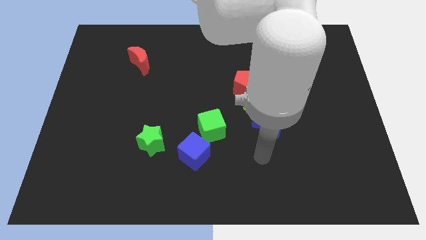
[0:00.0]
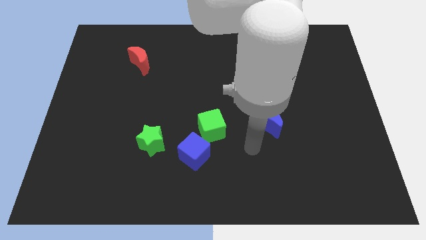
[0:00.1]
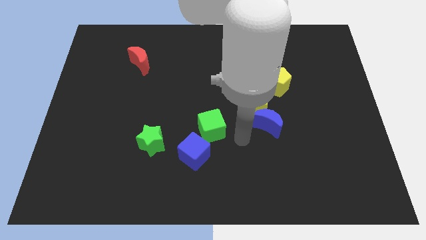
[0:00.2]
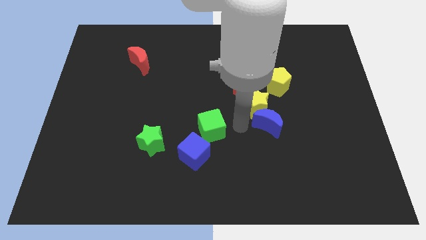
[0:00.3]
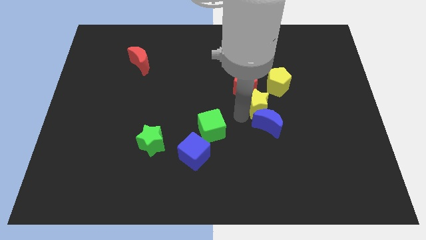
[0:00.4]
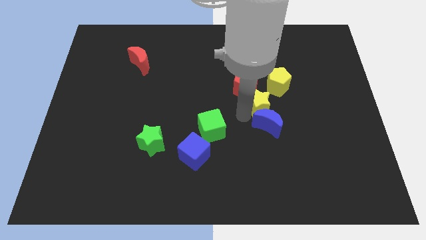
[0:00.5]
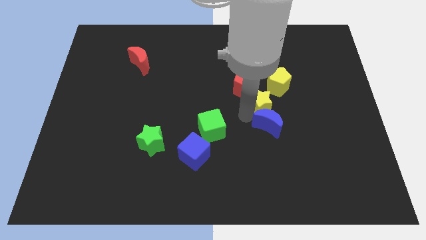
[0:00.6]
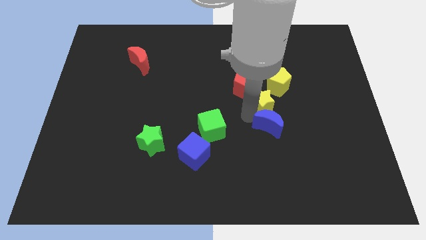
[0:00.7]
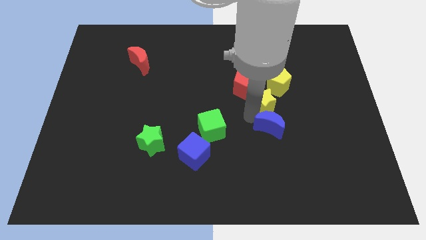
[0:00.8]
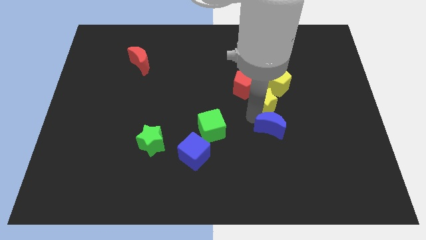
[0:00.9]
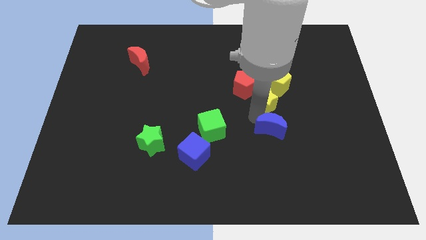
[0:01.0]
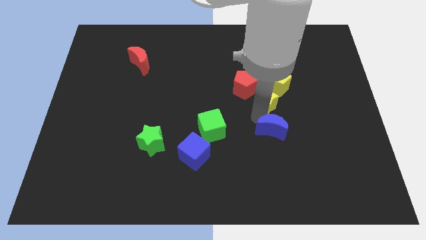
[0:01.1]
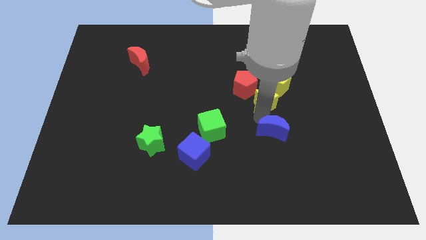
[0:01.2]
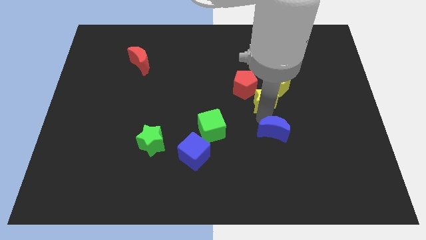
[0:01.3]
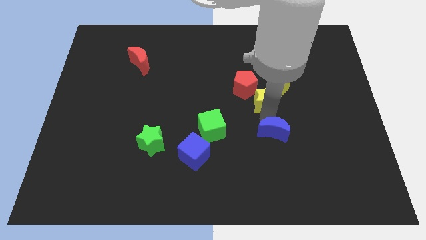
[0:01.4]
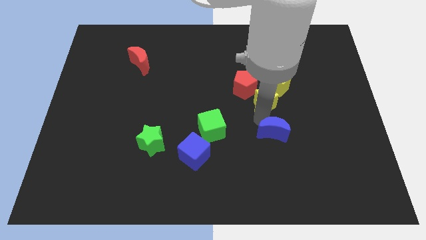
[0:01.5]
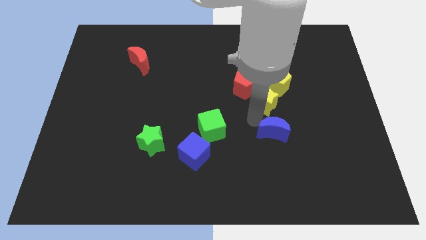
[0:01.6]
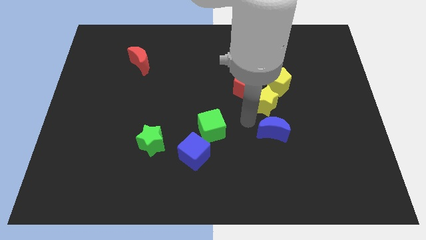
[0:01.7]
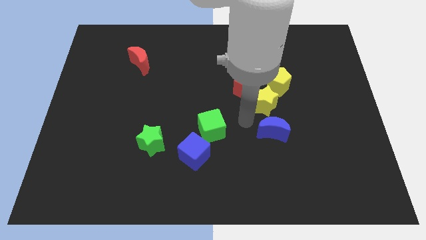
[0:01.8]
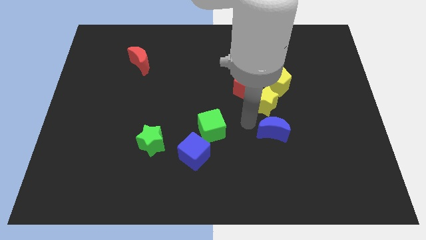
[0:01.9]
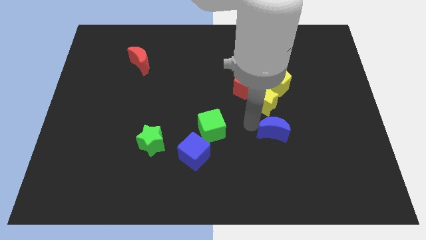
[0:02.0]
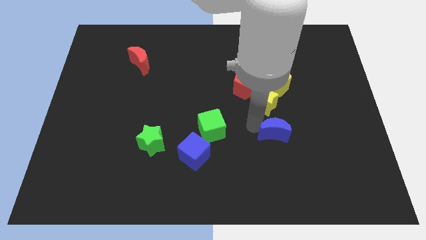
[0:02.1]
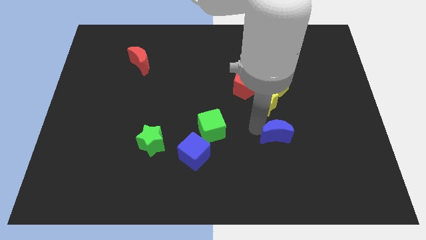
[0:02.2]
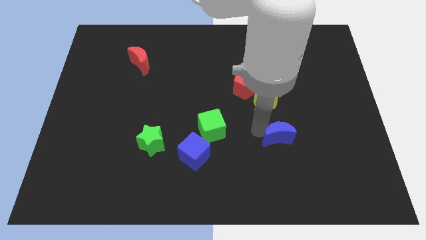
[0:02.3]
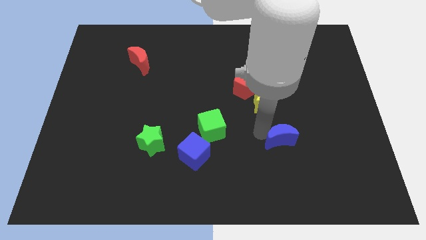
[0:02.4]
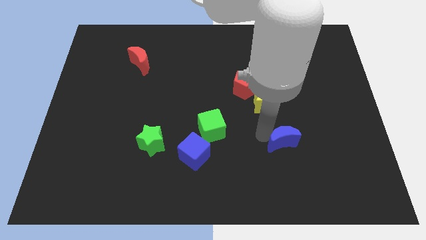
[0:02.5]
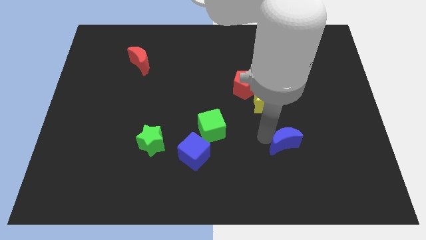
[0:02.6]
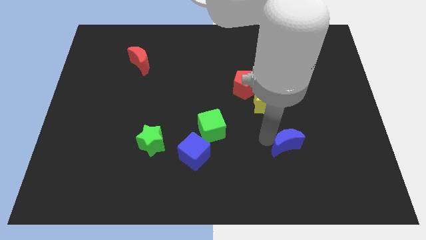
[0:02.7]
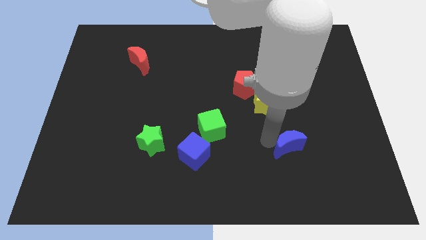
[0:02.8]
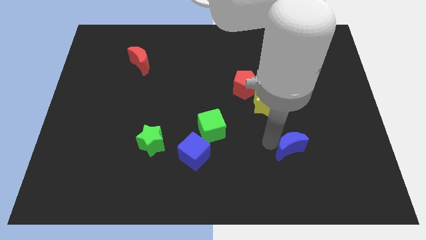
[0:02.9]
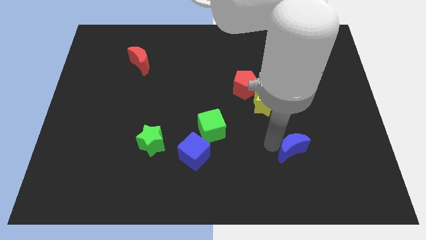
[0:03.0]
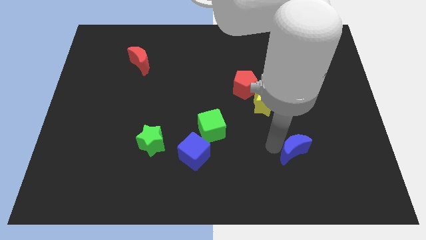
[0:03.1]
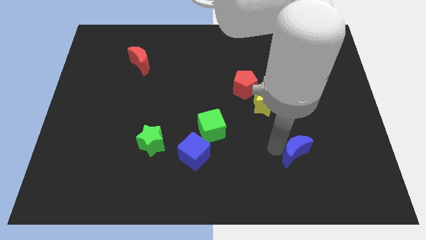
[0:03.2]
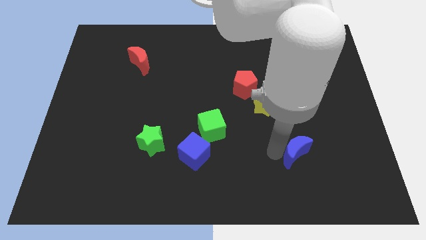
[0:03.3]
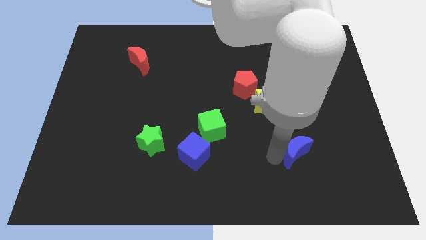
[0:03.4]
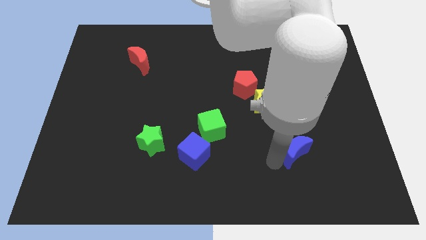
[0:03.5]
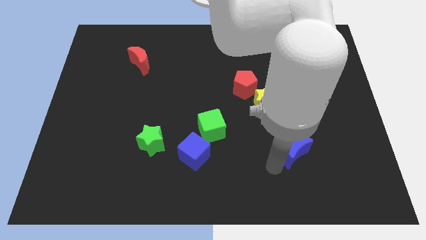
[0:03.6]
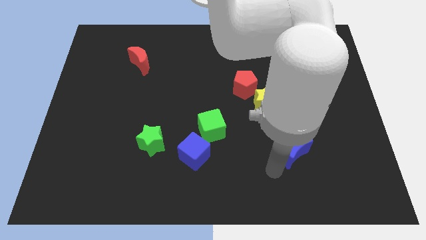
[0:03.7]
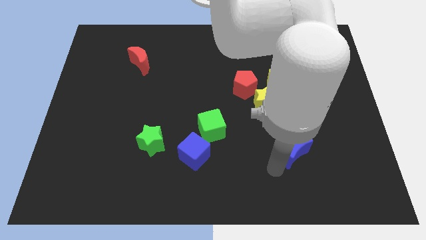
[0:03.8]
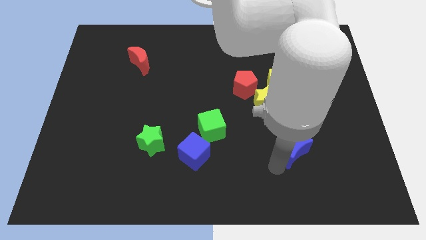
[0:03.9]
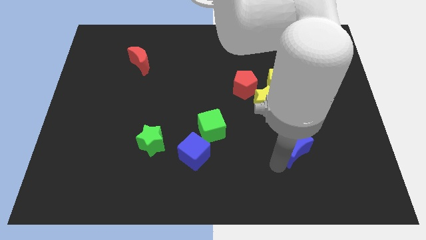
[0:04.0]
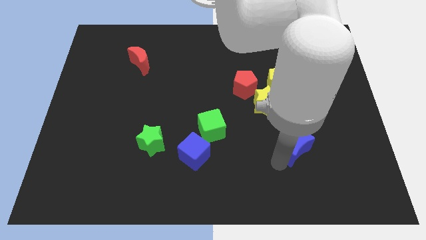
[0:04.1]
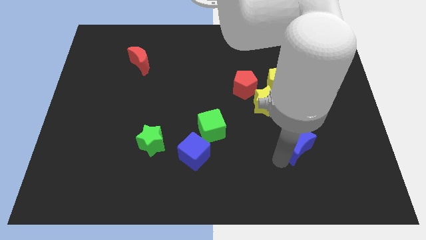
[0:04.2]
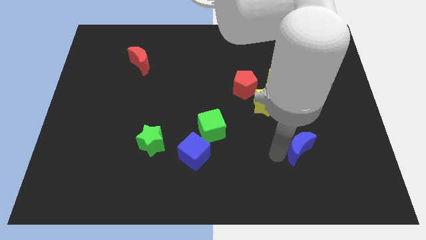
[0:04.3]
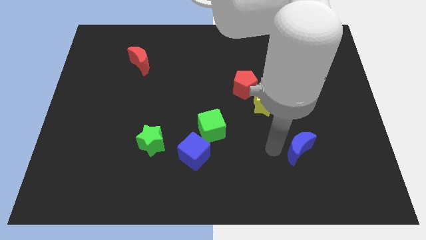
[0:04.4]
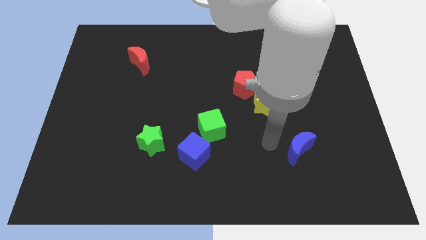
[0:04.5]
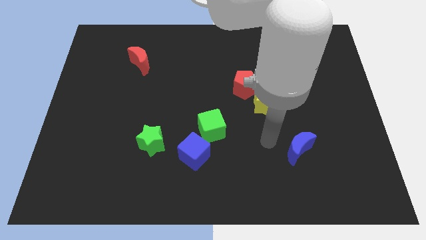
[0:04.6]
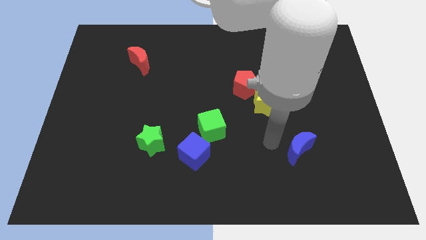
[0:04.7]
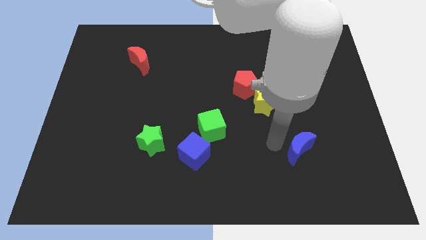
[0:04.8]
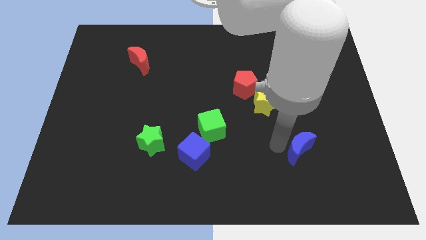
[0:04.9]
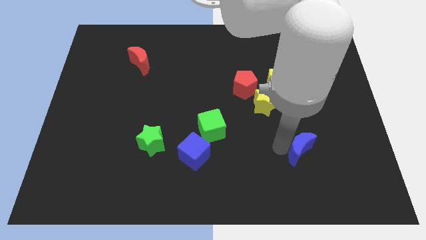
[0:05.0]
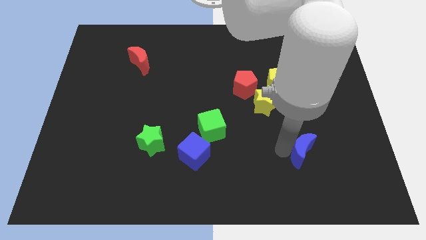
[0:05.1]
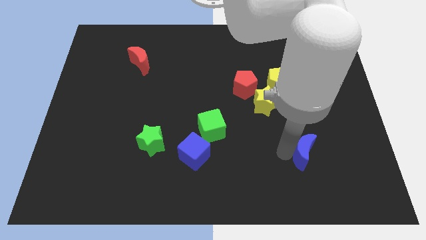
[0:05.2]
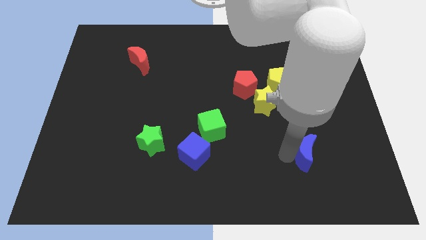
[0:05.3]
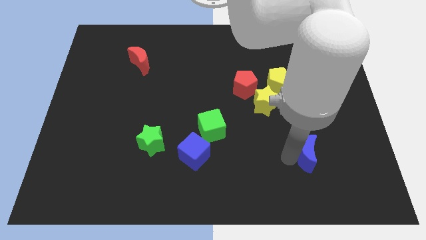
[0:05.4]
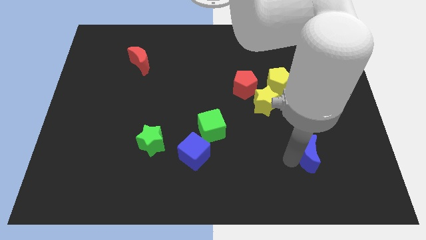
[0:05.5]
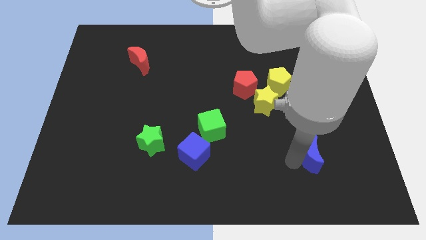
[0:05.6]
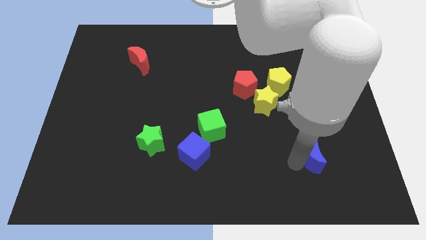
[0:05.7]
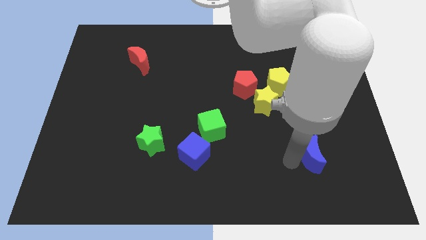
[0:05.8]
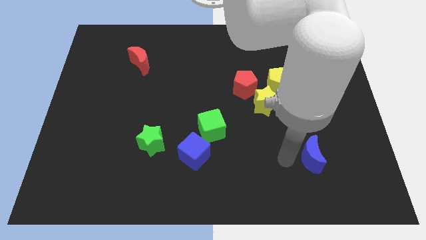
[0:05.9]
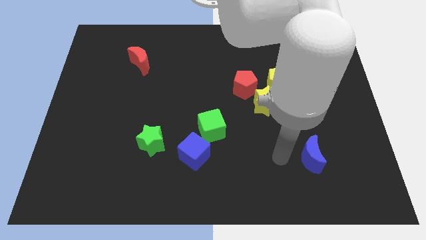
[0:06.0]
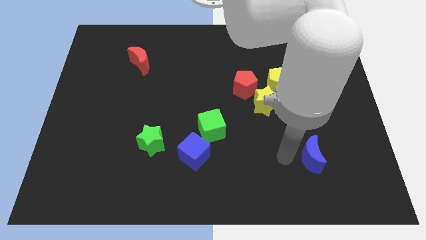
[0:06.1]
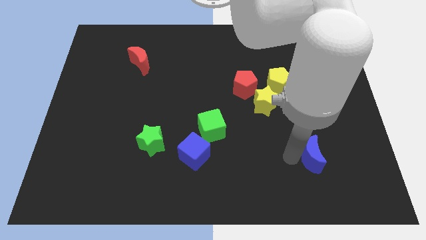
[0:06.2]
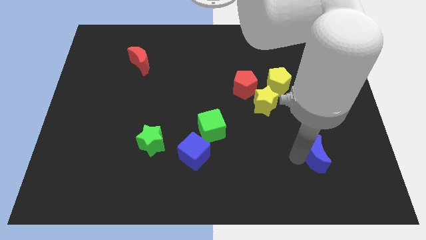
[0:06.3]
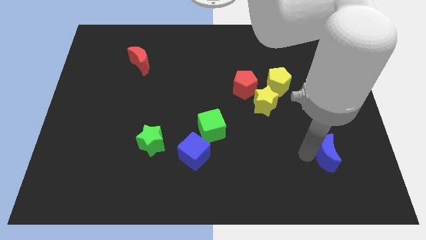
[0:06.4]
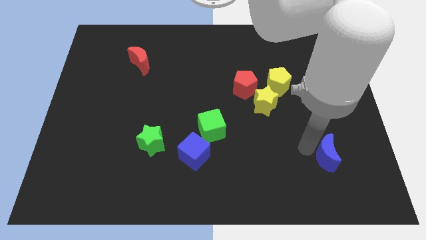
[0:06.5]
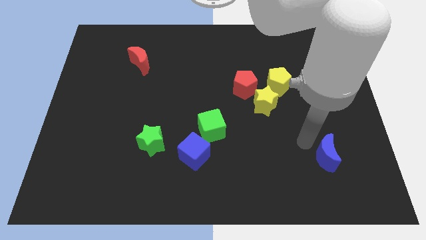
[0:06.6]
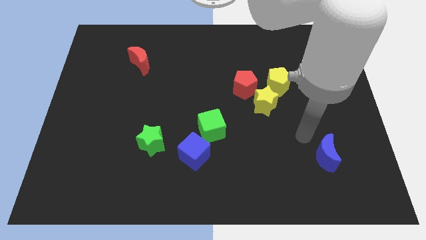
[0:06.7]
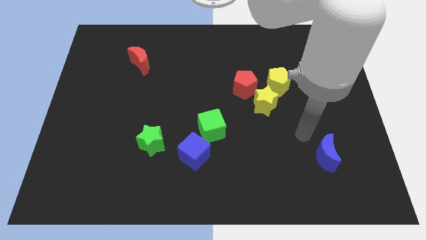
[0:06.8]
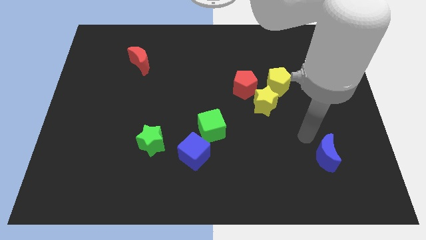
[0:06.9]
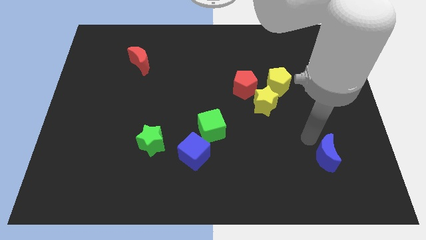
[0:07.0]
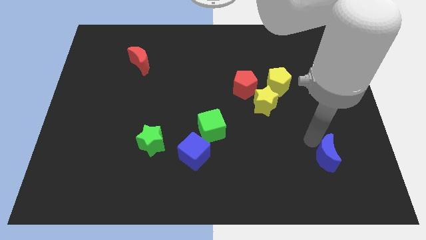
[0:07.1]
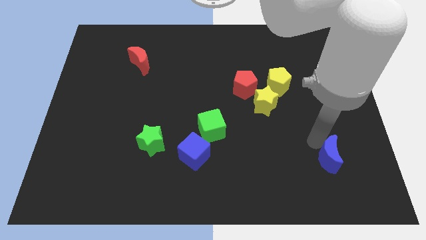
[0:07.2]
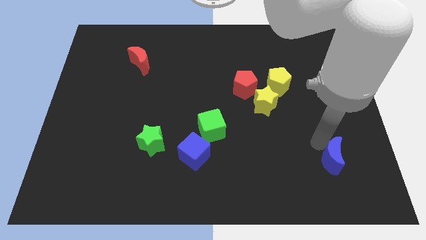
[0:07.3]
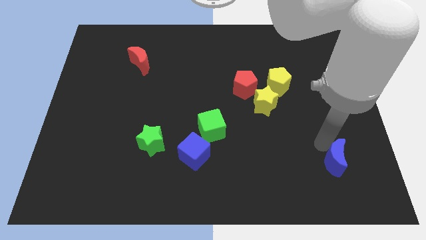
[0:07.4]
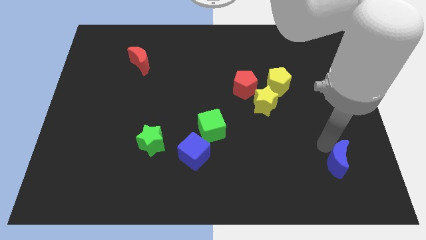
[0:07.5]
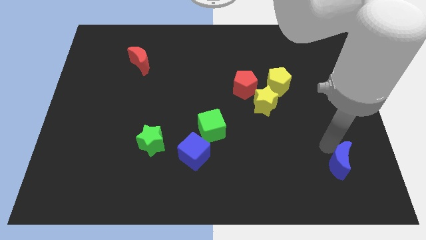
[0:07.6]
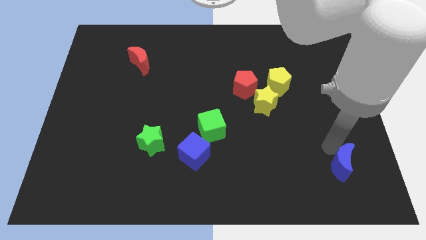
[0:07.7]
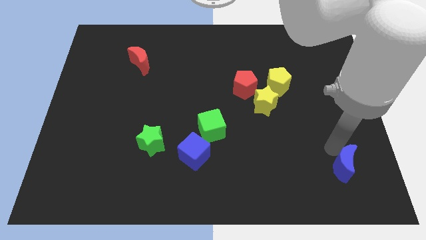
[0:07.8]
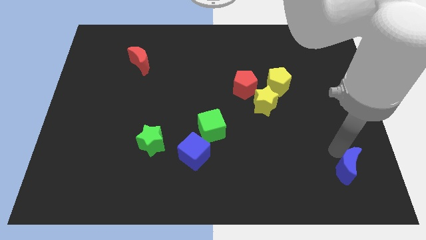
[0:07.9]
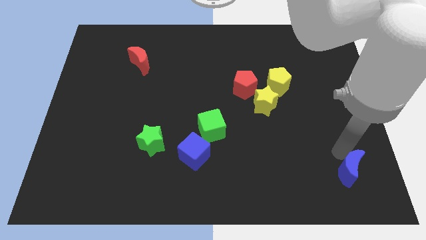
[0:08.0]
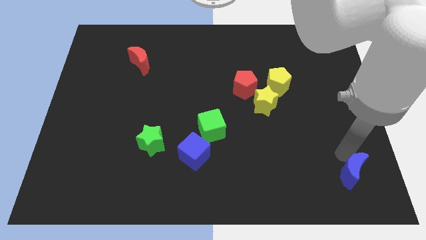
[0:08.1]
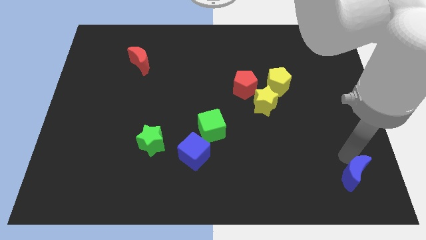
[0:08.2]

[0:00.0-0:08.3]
slide the blue moon to the bottom right corner
